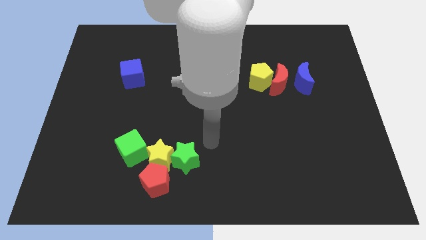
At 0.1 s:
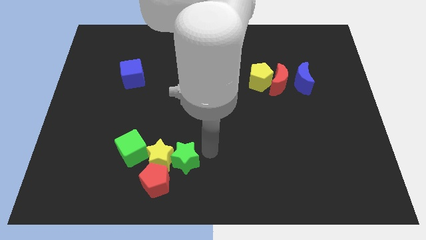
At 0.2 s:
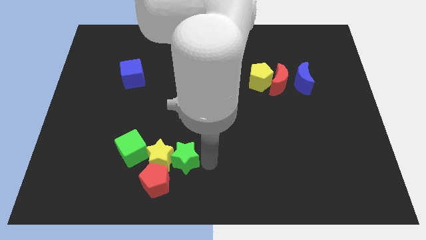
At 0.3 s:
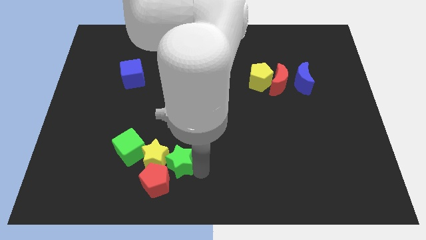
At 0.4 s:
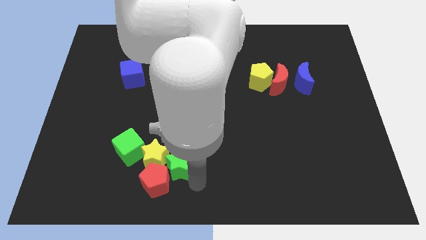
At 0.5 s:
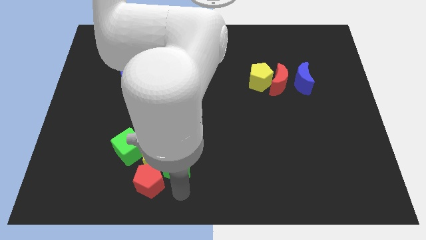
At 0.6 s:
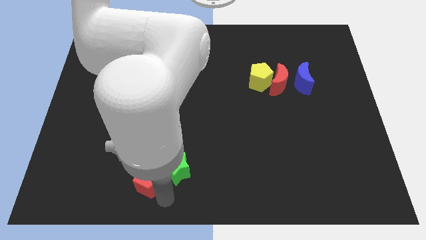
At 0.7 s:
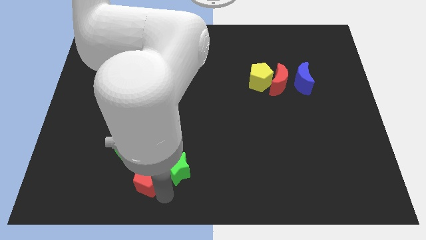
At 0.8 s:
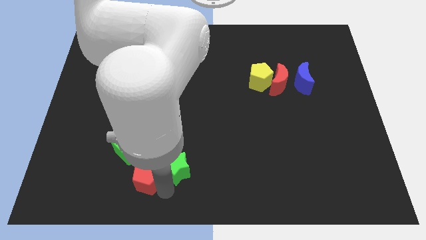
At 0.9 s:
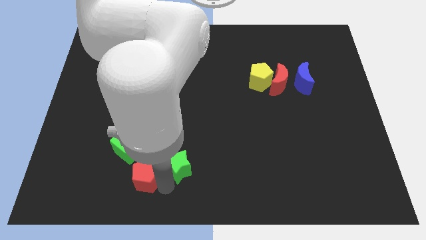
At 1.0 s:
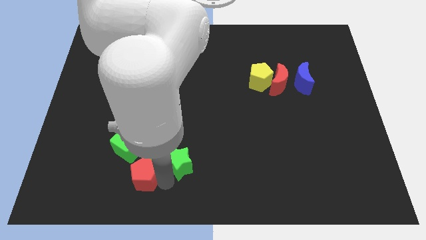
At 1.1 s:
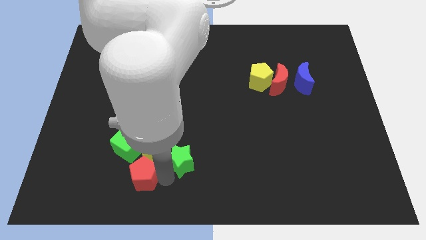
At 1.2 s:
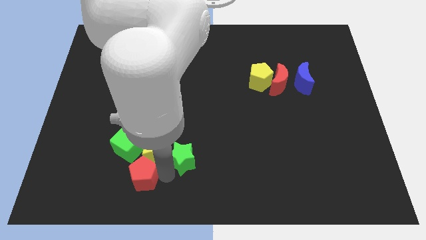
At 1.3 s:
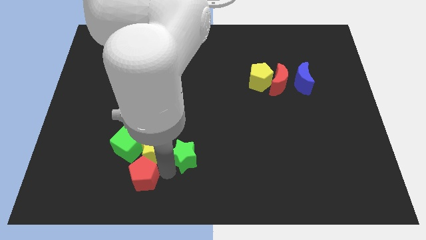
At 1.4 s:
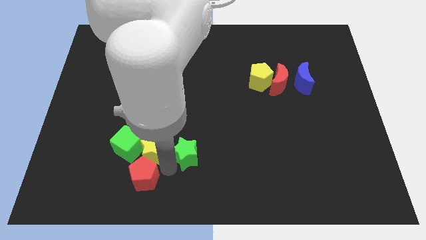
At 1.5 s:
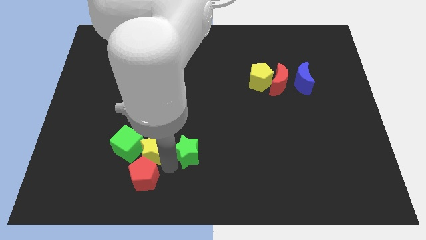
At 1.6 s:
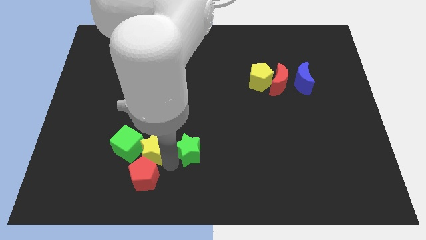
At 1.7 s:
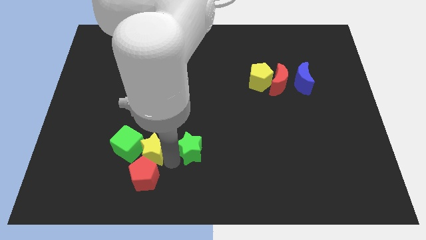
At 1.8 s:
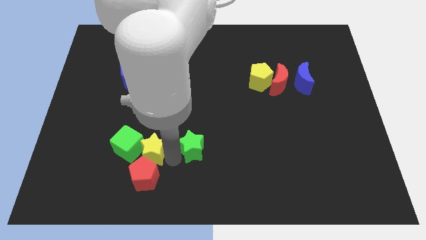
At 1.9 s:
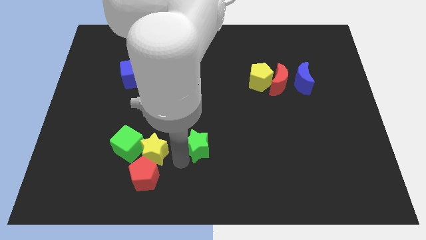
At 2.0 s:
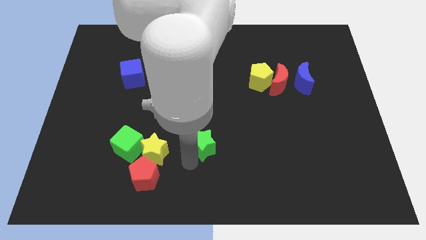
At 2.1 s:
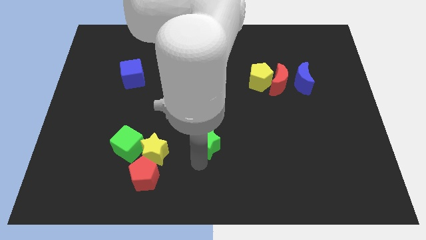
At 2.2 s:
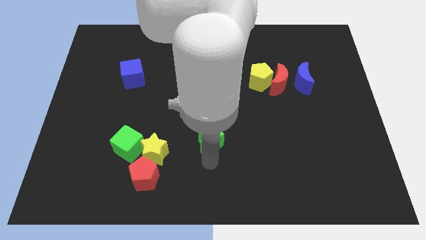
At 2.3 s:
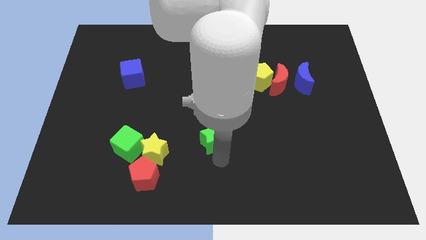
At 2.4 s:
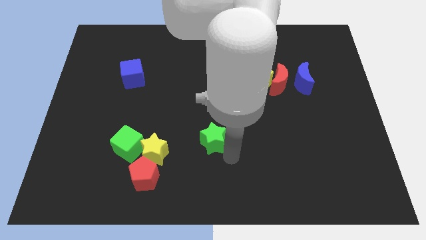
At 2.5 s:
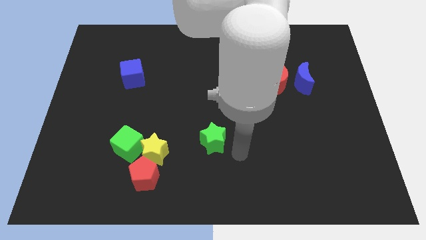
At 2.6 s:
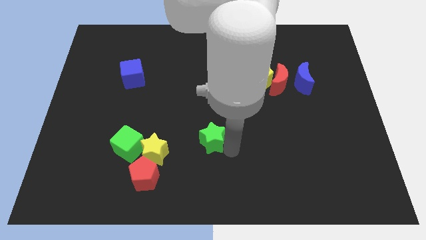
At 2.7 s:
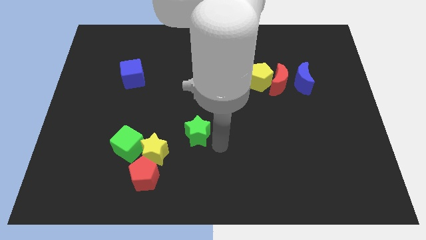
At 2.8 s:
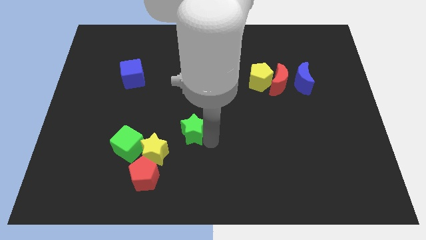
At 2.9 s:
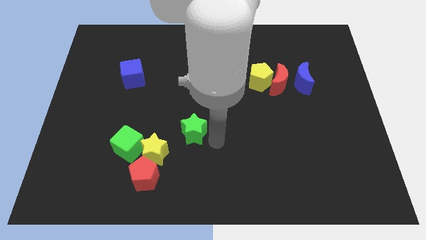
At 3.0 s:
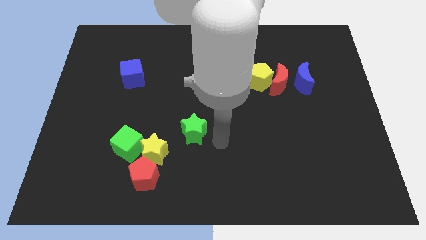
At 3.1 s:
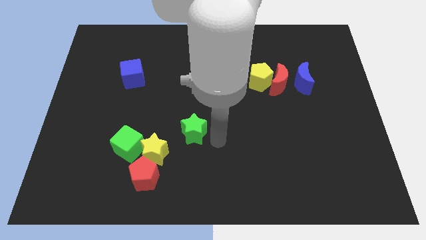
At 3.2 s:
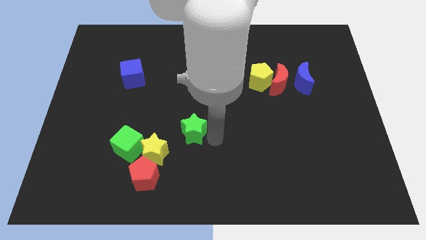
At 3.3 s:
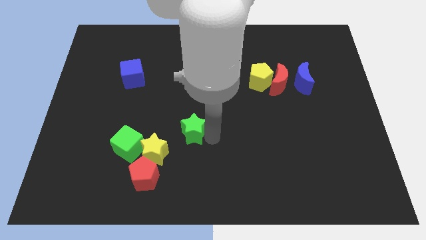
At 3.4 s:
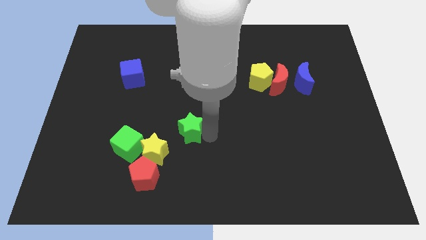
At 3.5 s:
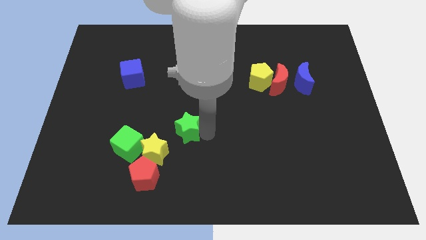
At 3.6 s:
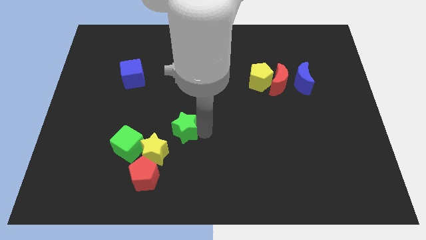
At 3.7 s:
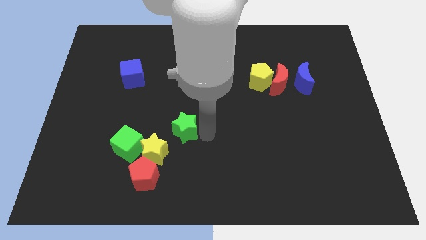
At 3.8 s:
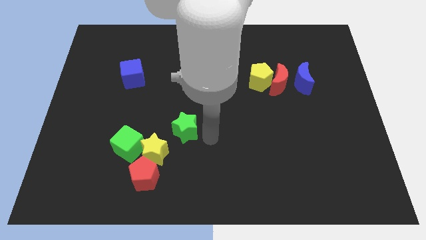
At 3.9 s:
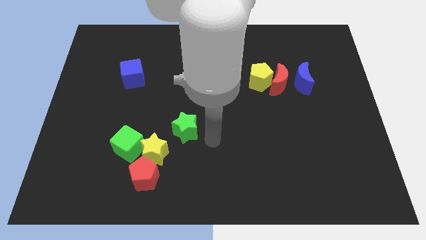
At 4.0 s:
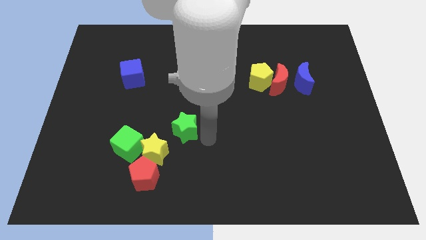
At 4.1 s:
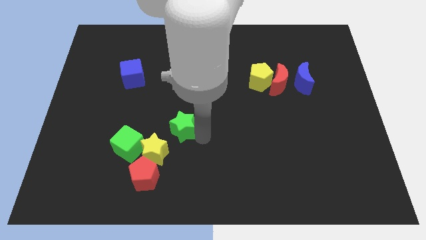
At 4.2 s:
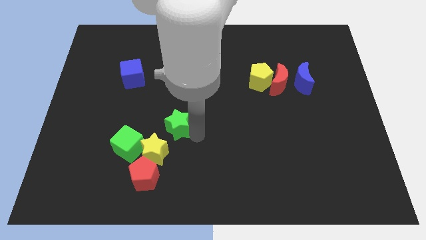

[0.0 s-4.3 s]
move the green star a little bit upwards and to the left diagonally

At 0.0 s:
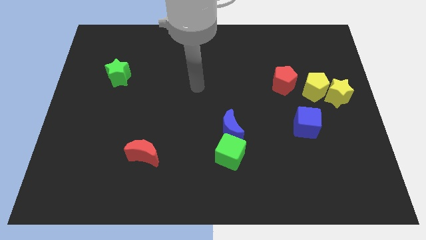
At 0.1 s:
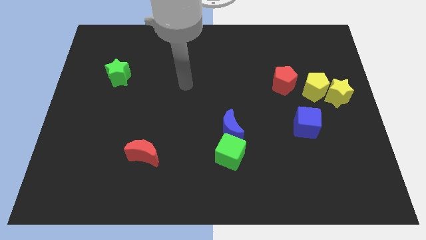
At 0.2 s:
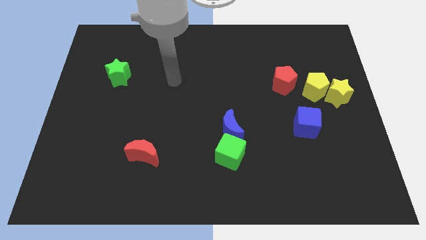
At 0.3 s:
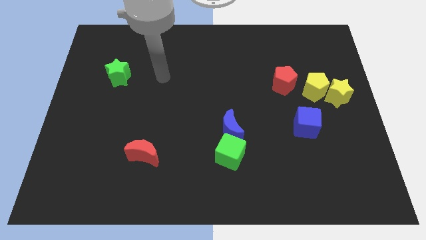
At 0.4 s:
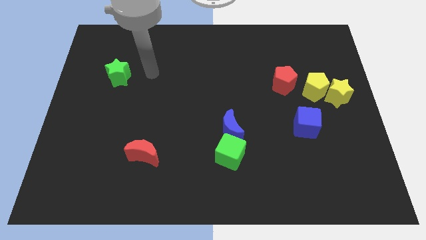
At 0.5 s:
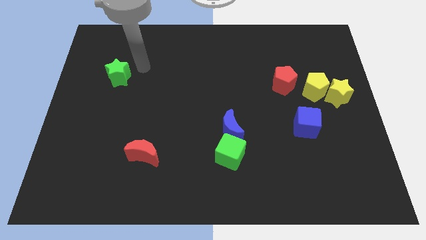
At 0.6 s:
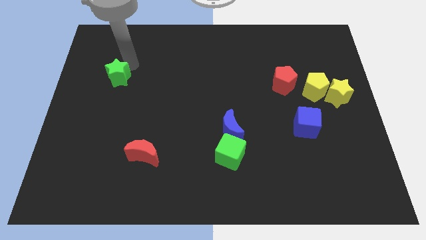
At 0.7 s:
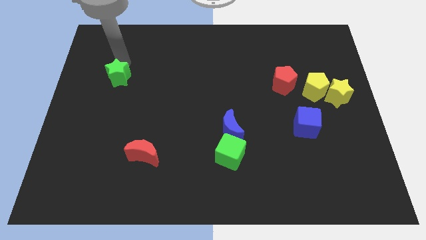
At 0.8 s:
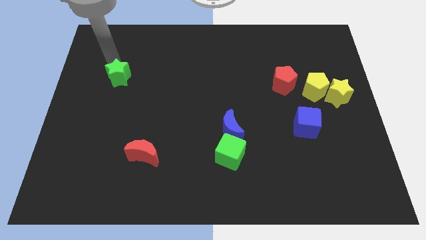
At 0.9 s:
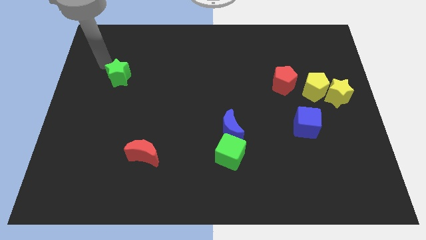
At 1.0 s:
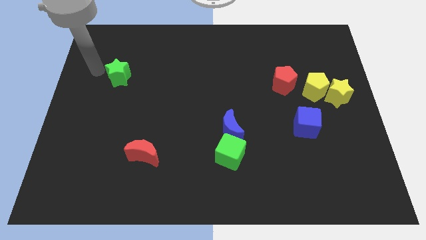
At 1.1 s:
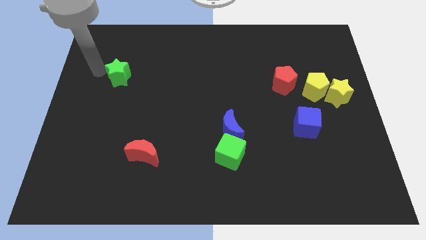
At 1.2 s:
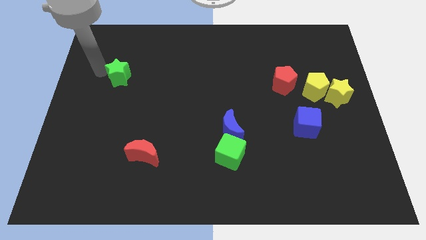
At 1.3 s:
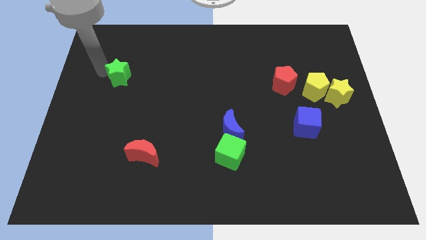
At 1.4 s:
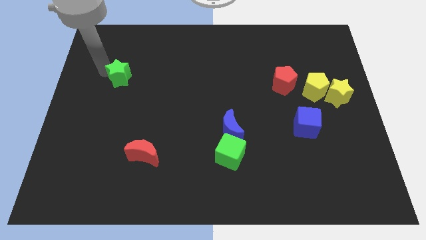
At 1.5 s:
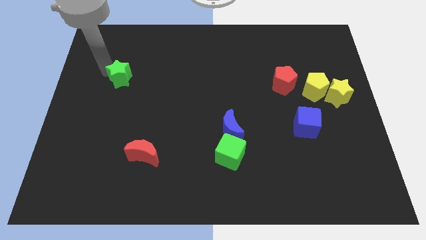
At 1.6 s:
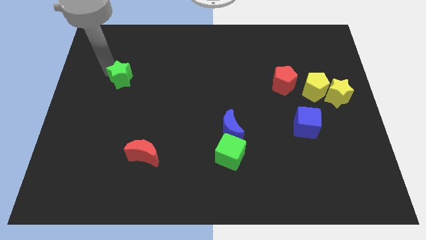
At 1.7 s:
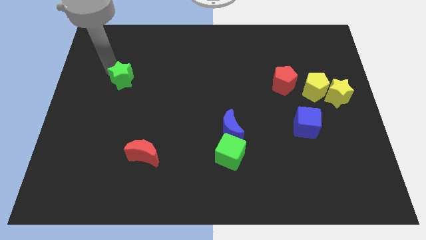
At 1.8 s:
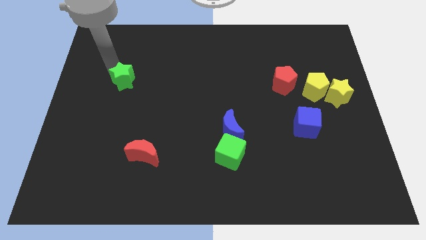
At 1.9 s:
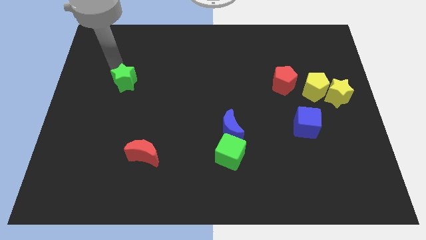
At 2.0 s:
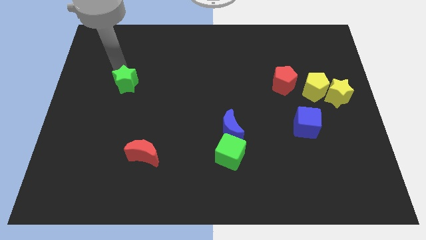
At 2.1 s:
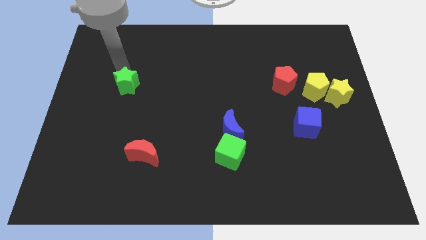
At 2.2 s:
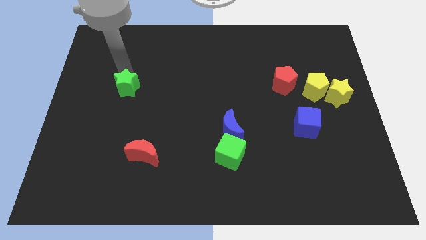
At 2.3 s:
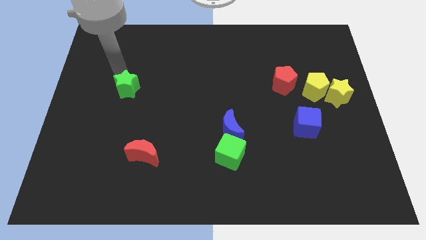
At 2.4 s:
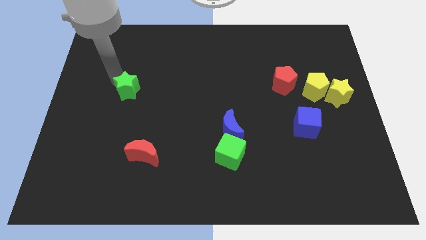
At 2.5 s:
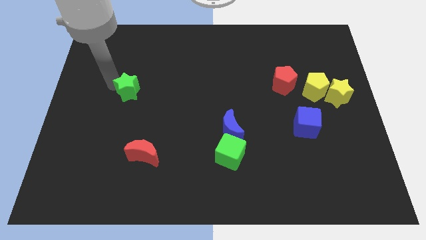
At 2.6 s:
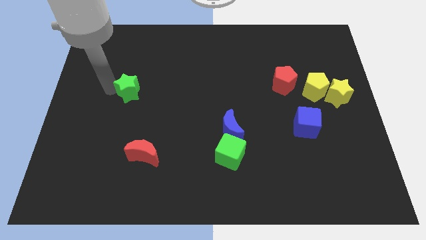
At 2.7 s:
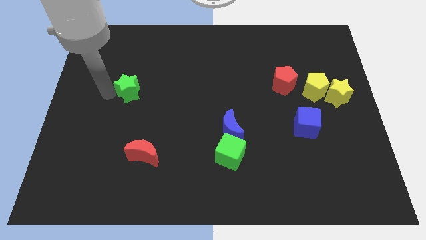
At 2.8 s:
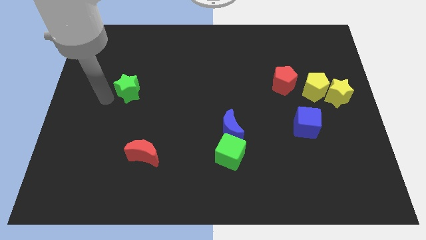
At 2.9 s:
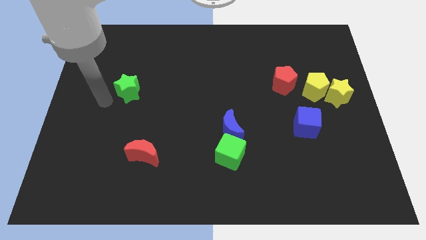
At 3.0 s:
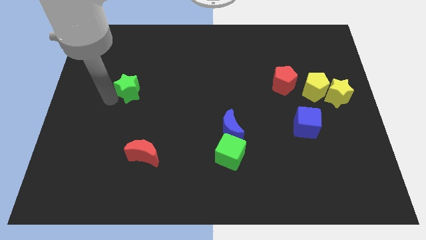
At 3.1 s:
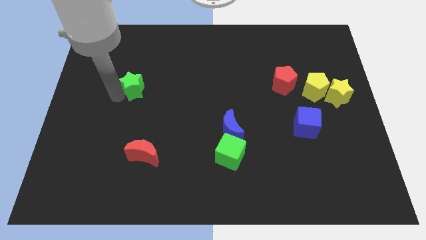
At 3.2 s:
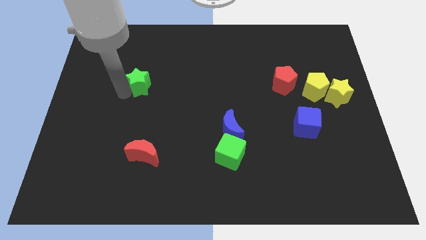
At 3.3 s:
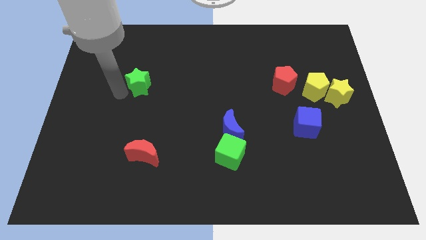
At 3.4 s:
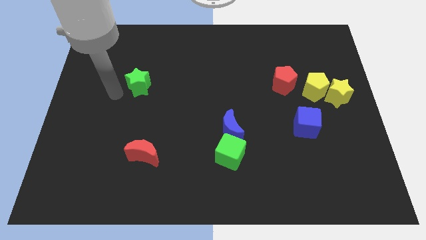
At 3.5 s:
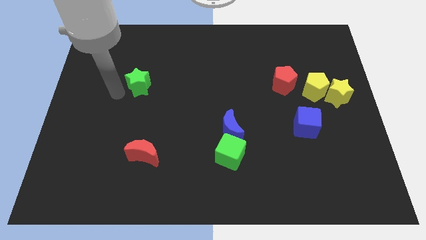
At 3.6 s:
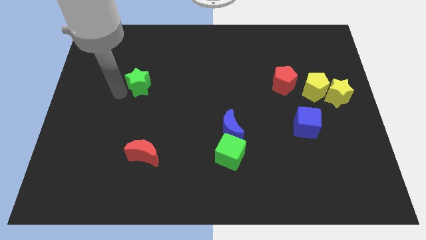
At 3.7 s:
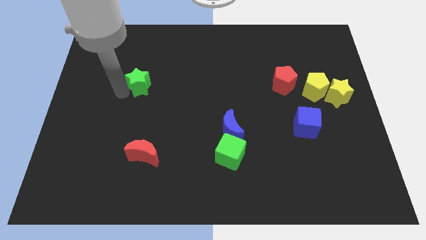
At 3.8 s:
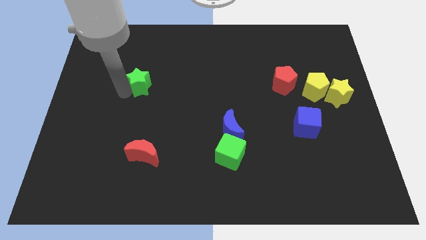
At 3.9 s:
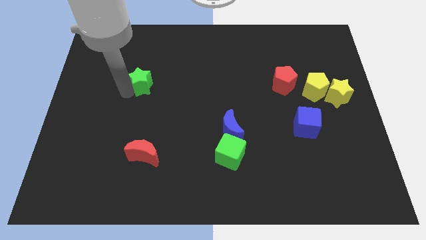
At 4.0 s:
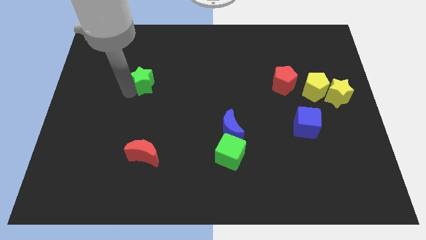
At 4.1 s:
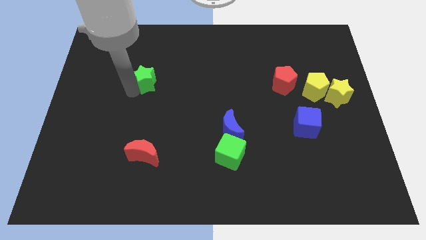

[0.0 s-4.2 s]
slide the green star slightly to the right
